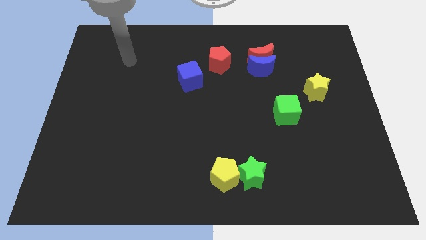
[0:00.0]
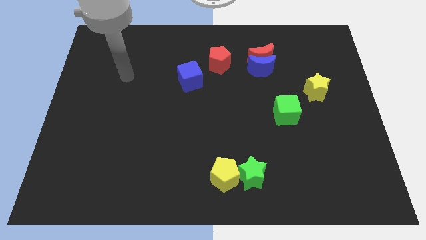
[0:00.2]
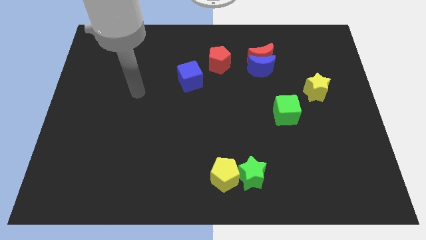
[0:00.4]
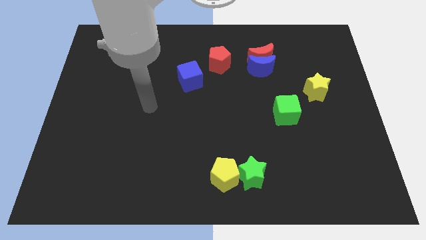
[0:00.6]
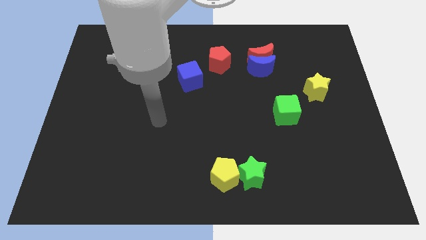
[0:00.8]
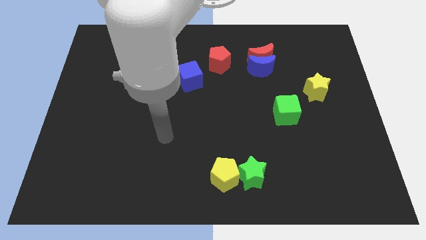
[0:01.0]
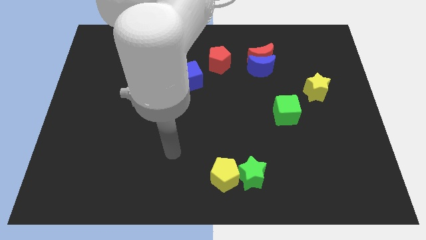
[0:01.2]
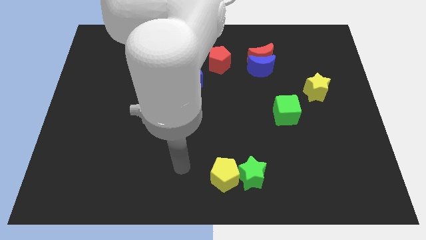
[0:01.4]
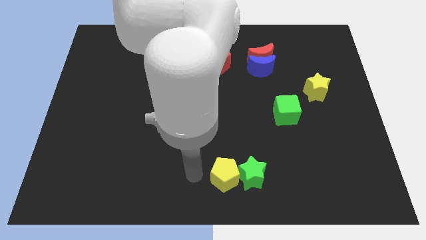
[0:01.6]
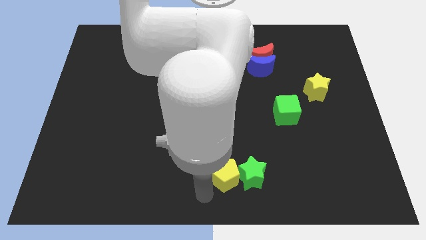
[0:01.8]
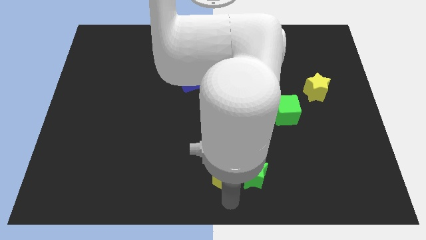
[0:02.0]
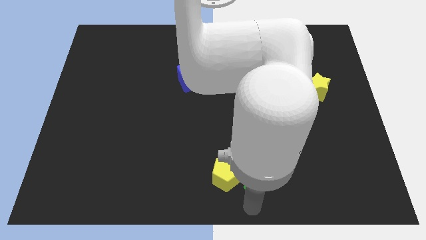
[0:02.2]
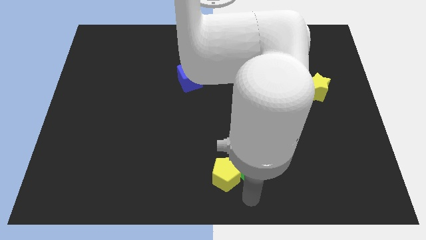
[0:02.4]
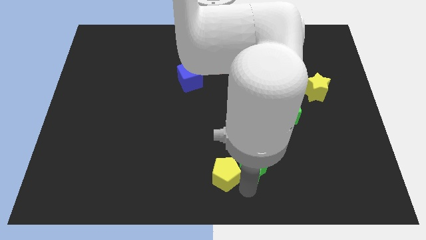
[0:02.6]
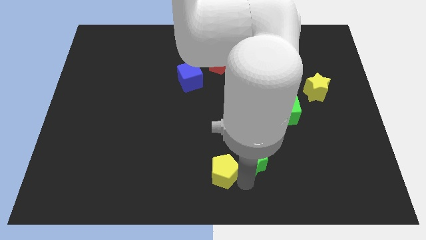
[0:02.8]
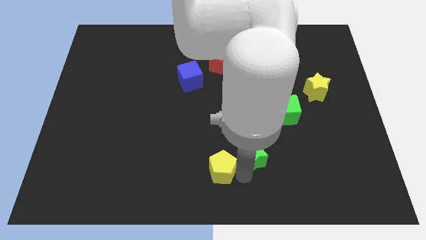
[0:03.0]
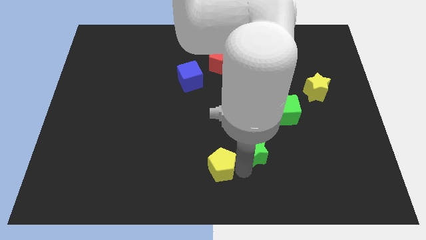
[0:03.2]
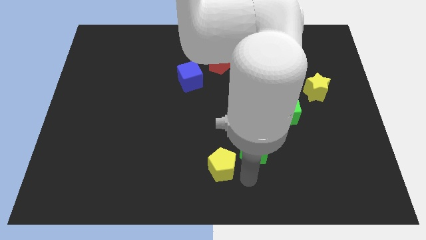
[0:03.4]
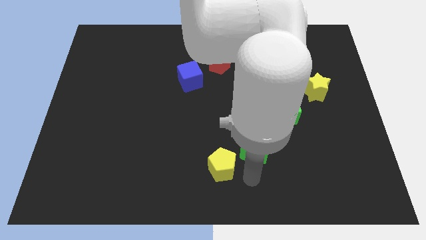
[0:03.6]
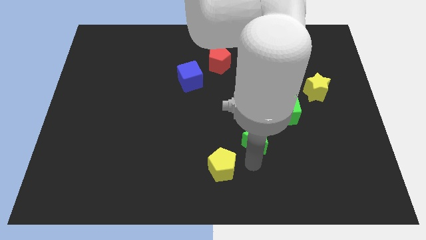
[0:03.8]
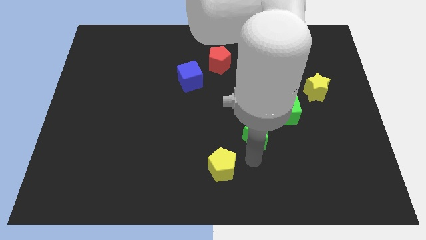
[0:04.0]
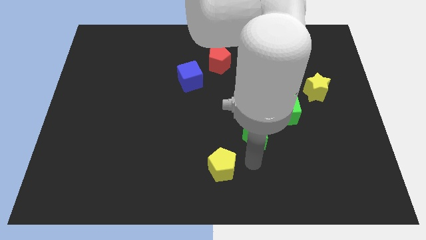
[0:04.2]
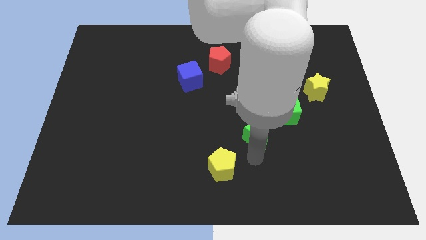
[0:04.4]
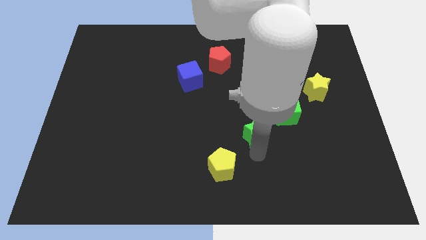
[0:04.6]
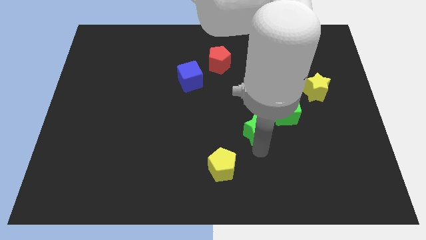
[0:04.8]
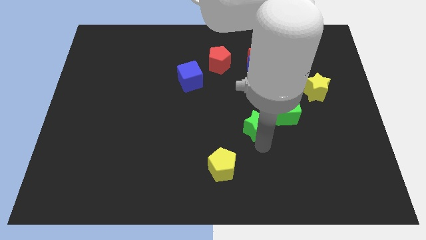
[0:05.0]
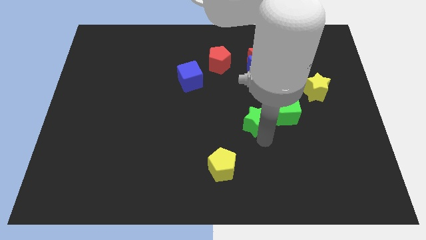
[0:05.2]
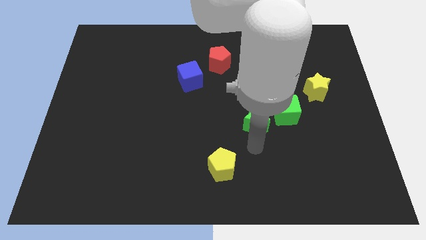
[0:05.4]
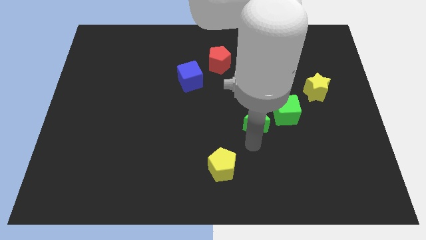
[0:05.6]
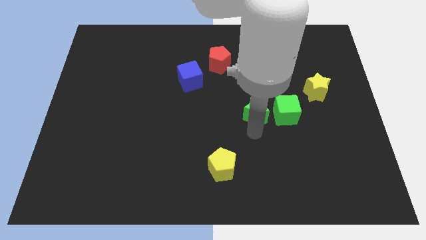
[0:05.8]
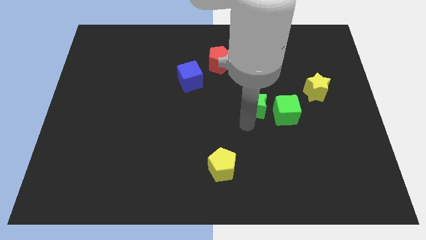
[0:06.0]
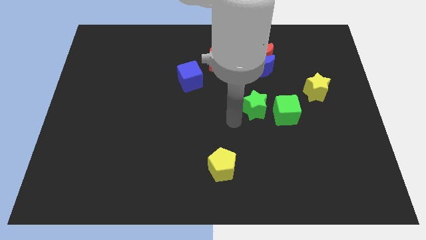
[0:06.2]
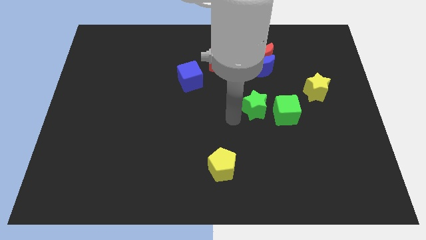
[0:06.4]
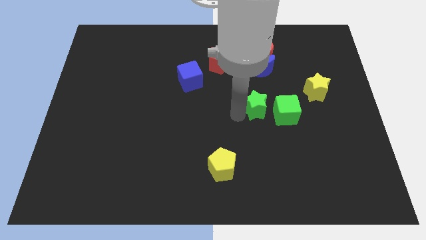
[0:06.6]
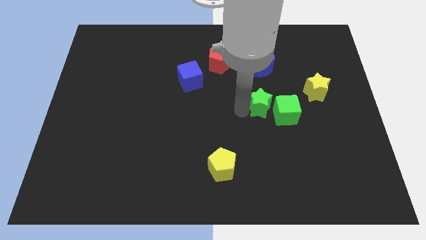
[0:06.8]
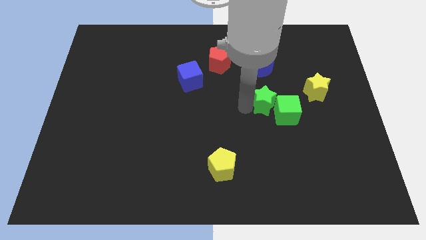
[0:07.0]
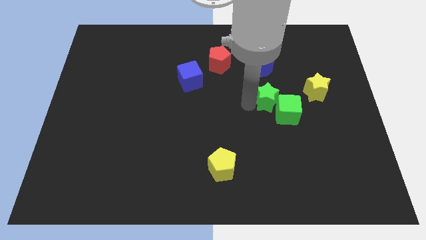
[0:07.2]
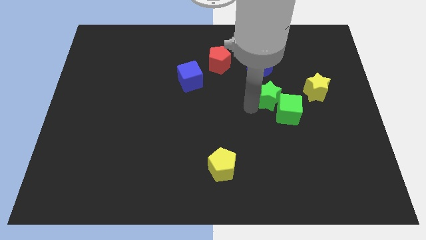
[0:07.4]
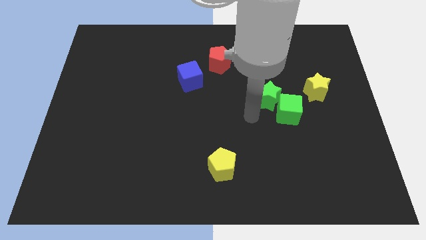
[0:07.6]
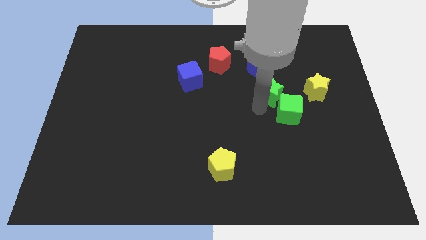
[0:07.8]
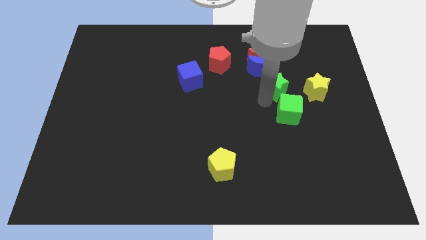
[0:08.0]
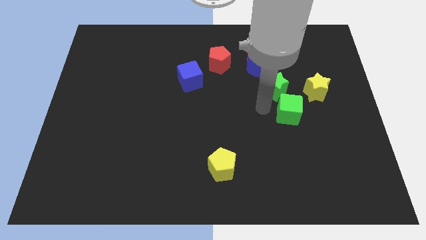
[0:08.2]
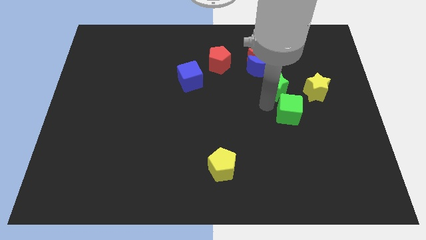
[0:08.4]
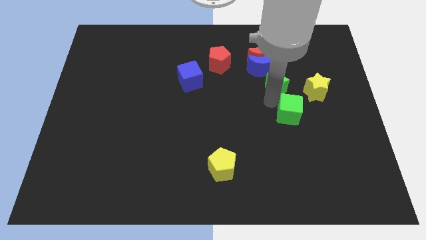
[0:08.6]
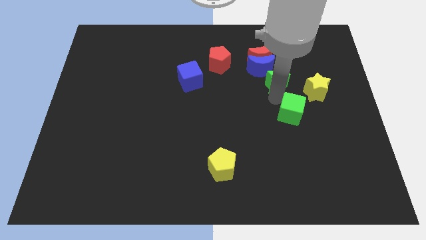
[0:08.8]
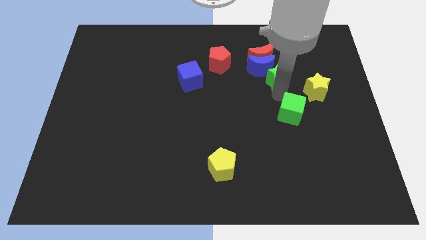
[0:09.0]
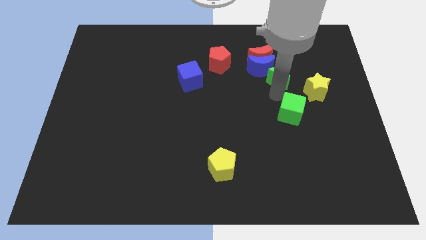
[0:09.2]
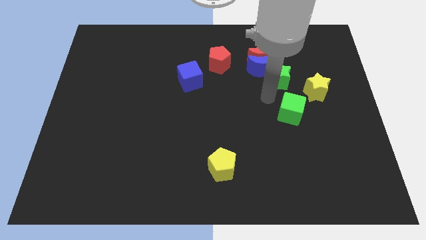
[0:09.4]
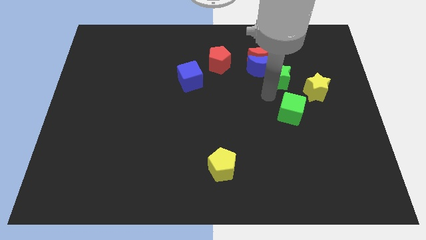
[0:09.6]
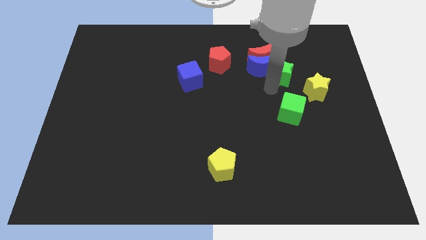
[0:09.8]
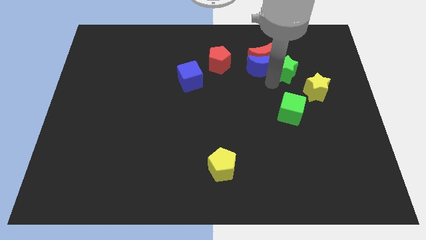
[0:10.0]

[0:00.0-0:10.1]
put the green star right of the red moon

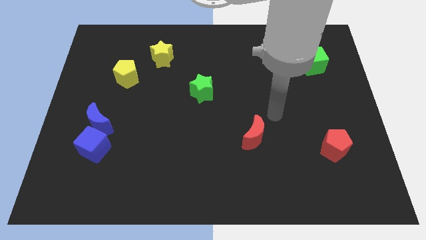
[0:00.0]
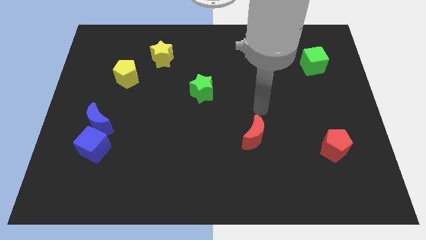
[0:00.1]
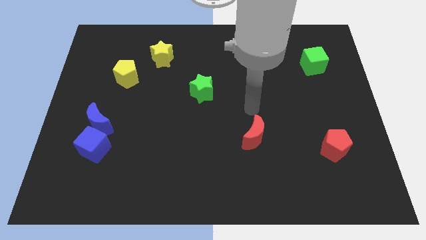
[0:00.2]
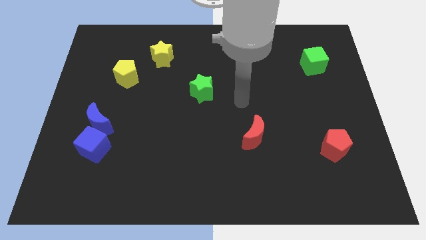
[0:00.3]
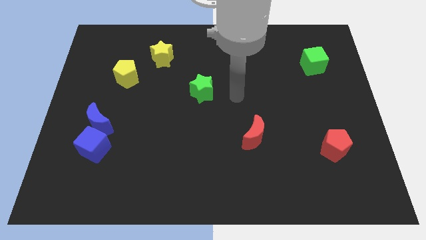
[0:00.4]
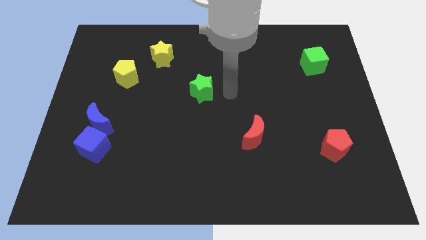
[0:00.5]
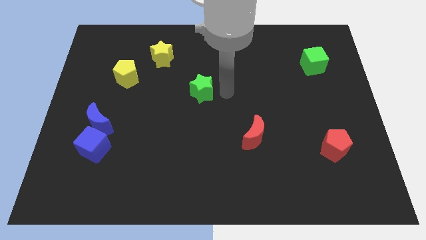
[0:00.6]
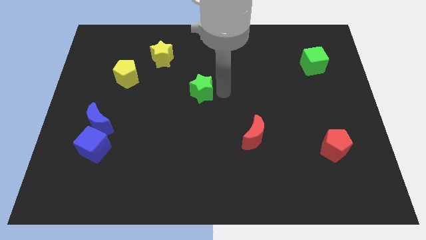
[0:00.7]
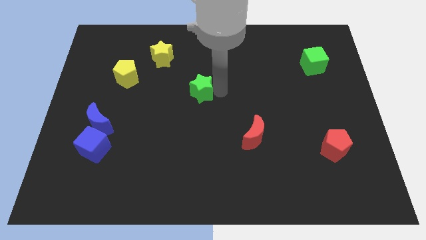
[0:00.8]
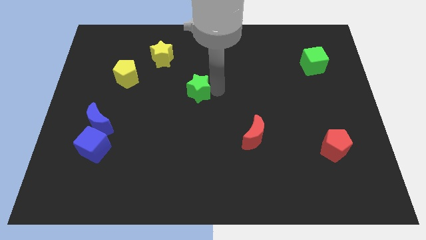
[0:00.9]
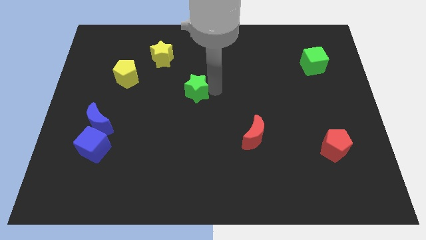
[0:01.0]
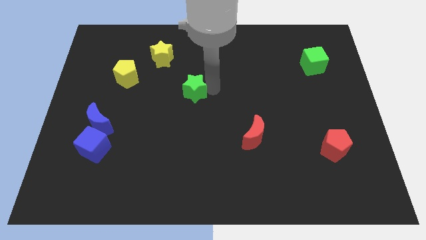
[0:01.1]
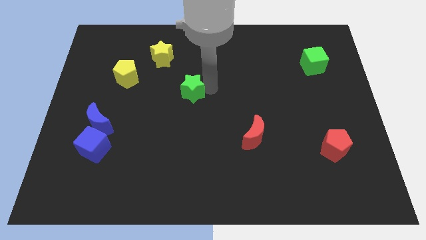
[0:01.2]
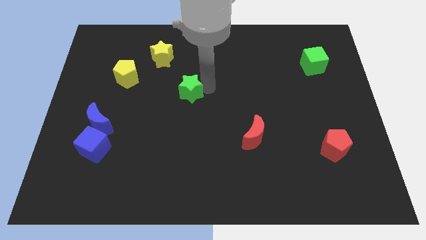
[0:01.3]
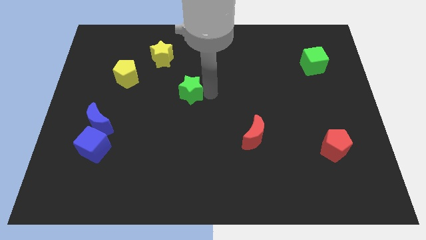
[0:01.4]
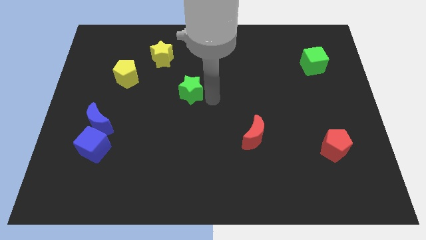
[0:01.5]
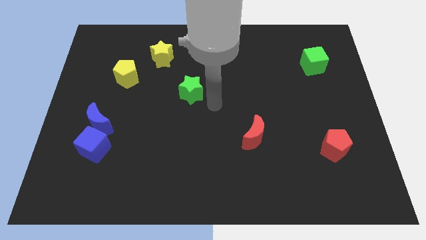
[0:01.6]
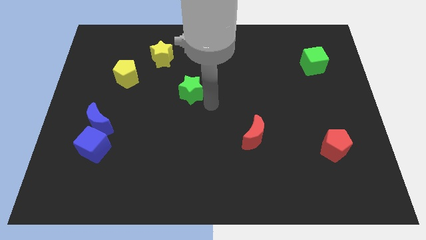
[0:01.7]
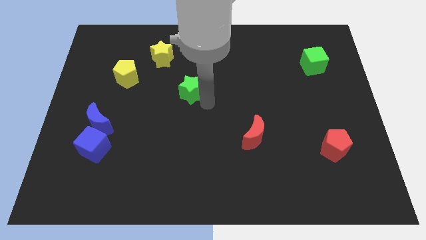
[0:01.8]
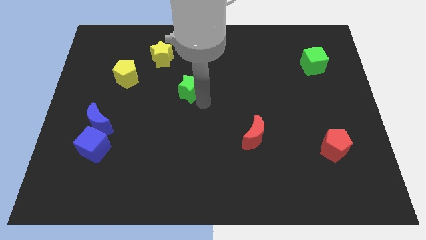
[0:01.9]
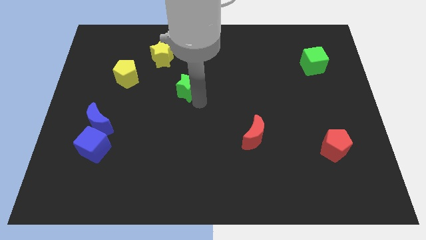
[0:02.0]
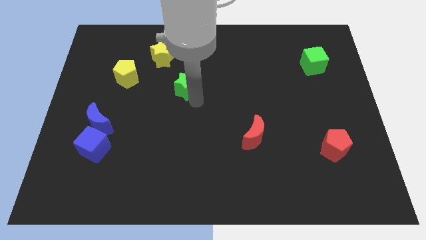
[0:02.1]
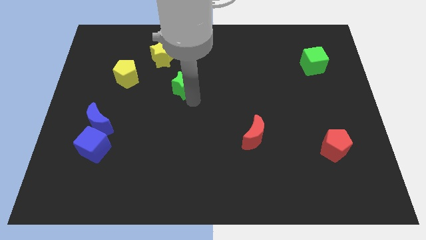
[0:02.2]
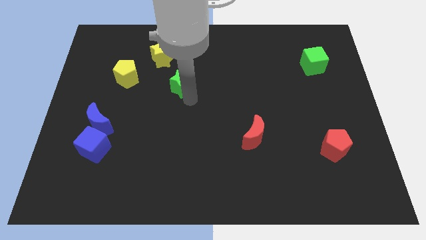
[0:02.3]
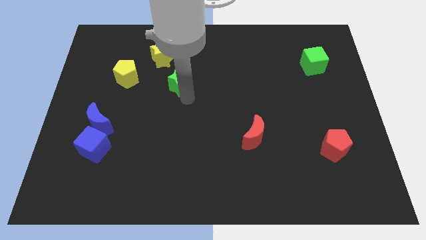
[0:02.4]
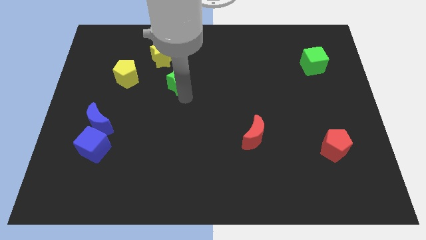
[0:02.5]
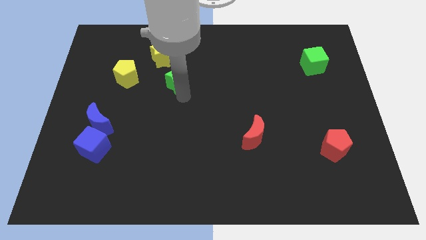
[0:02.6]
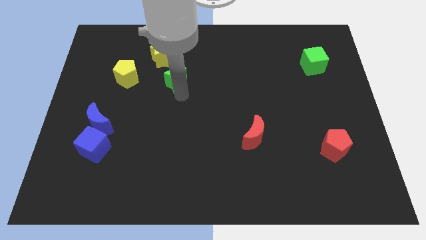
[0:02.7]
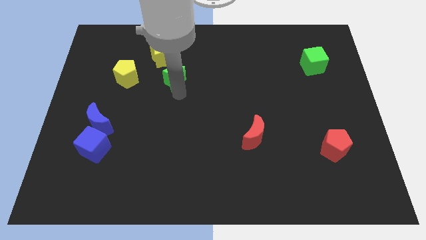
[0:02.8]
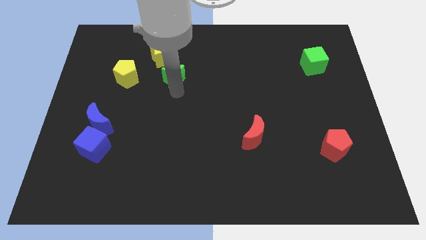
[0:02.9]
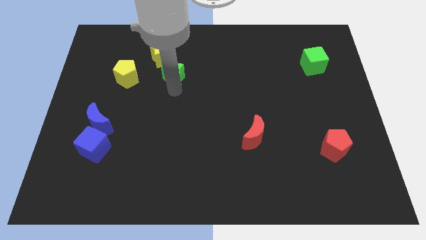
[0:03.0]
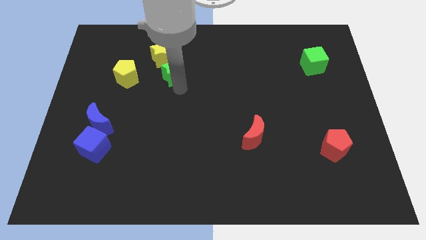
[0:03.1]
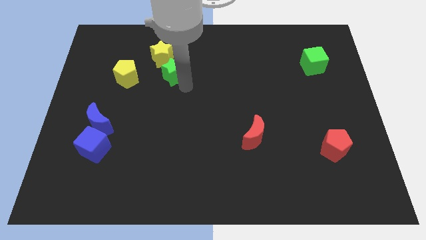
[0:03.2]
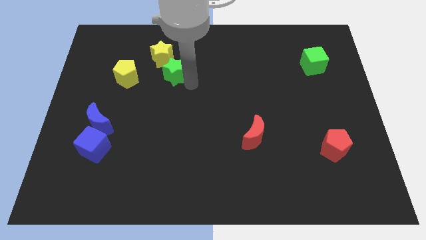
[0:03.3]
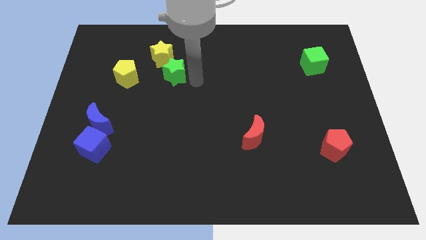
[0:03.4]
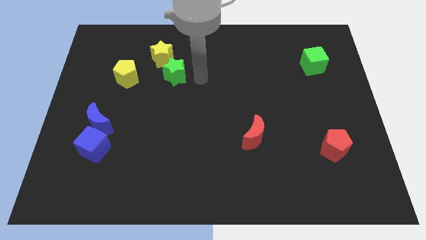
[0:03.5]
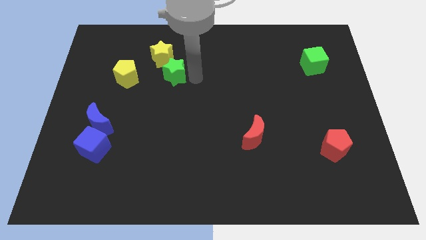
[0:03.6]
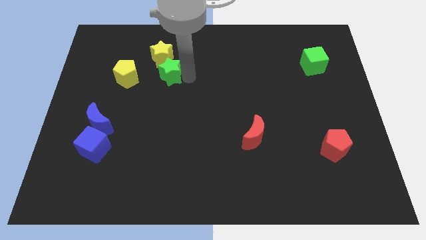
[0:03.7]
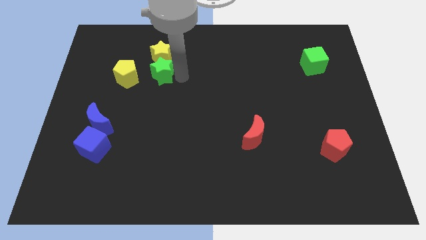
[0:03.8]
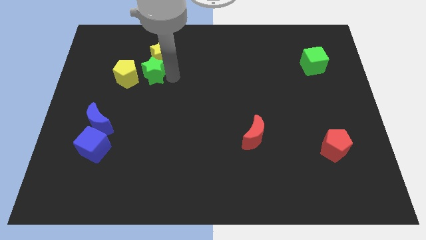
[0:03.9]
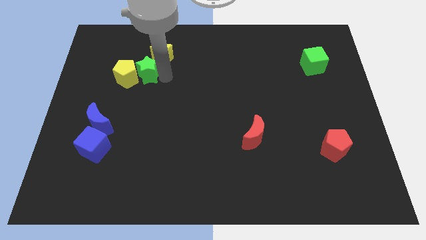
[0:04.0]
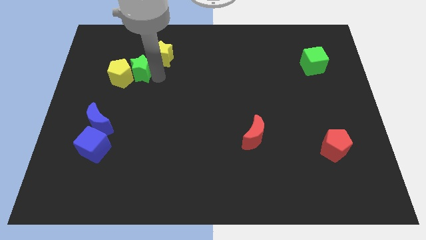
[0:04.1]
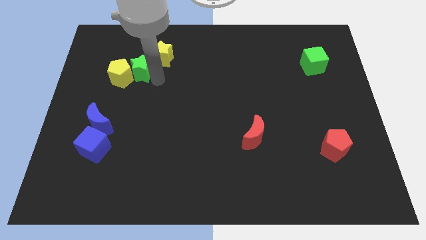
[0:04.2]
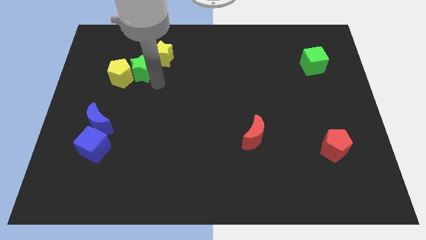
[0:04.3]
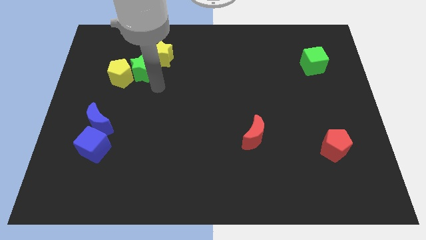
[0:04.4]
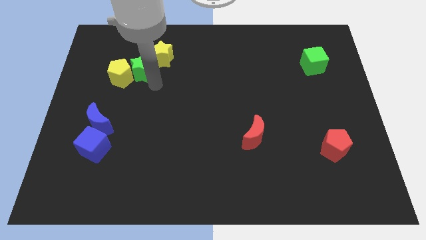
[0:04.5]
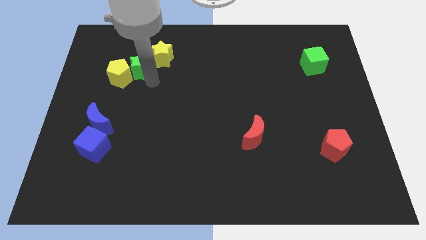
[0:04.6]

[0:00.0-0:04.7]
put the green star left of the yellow star
